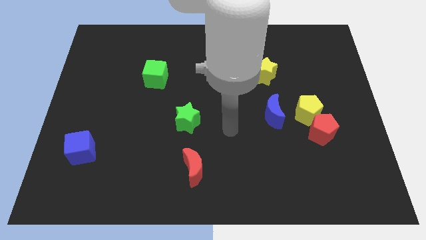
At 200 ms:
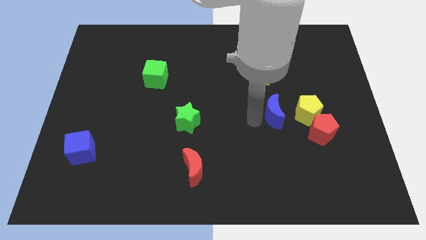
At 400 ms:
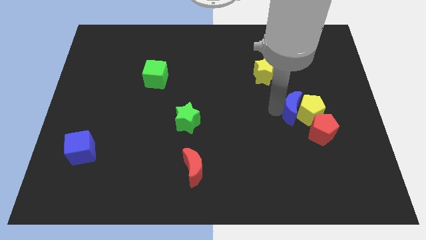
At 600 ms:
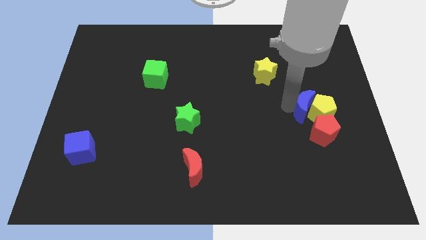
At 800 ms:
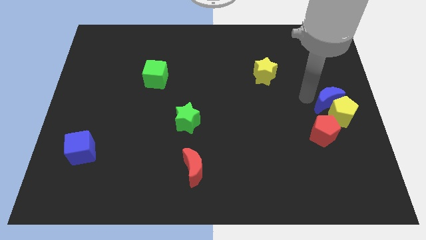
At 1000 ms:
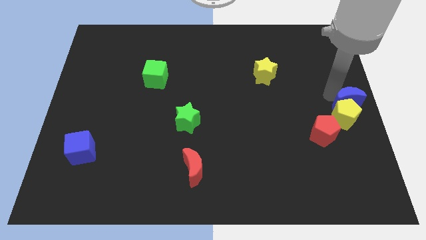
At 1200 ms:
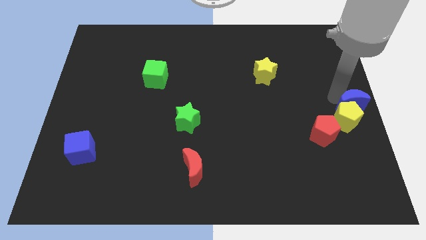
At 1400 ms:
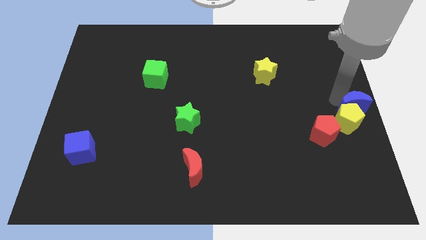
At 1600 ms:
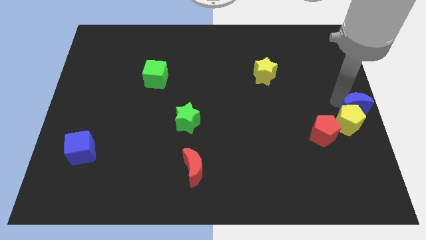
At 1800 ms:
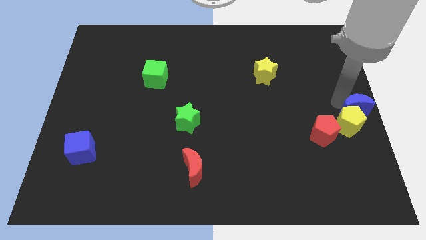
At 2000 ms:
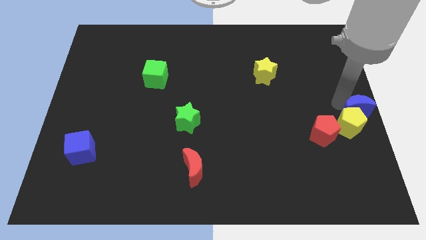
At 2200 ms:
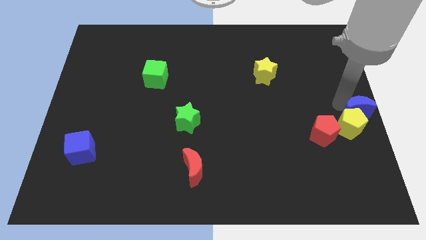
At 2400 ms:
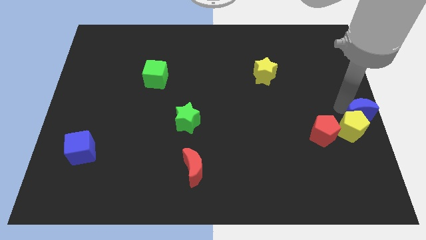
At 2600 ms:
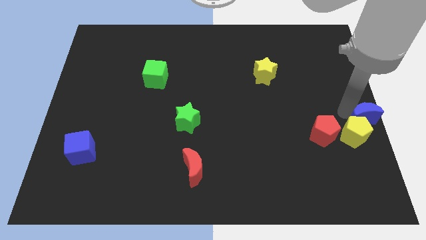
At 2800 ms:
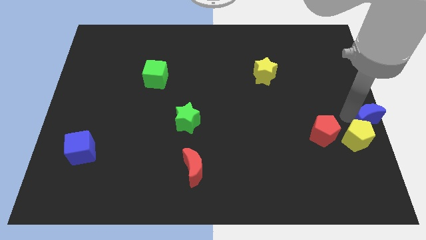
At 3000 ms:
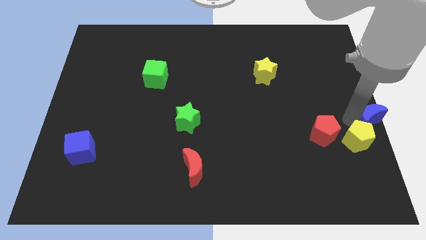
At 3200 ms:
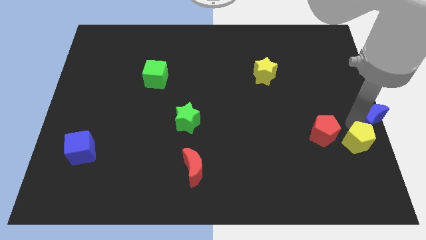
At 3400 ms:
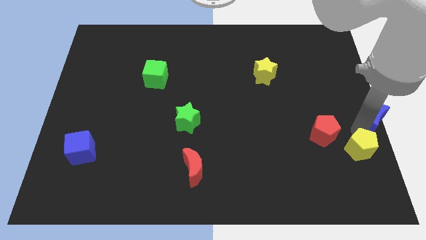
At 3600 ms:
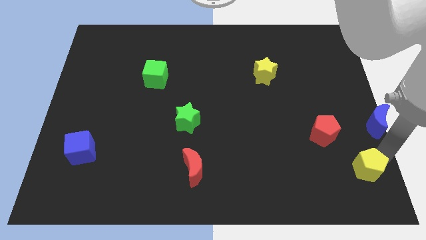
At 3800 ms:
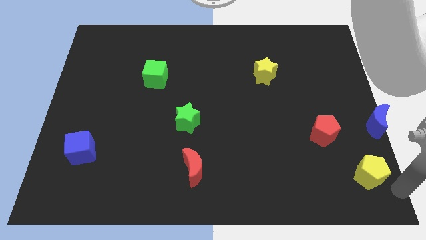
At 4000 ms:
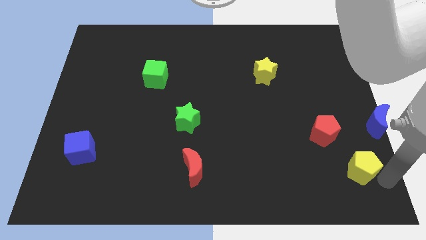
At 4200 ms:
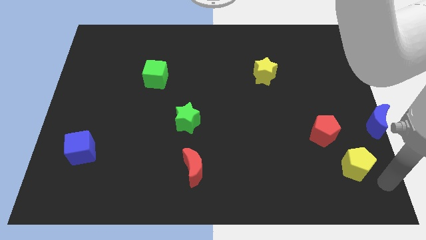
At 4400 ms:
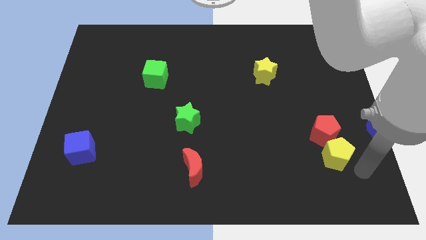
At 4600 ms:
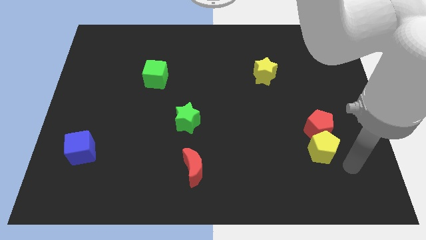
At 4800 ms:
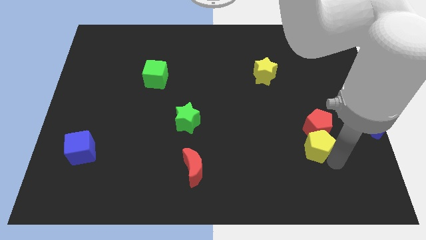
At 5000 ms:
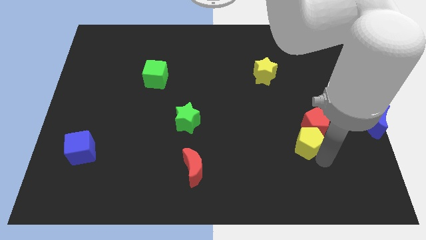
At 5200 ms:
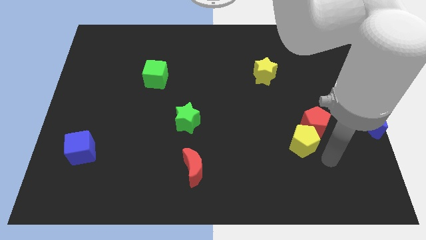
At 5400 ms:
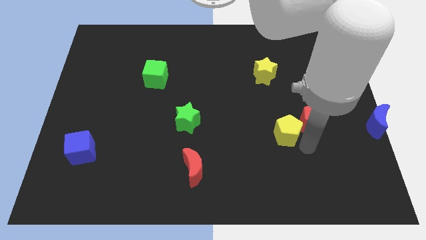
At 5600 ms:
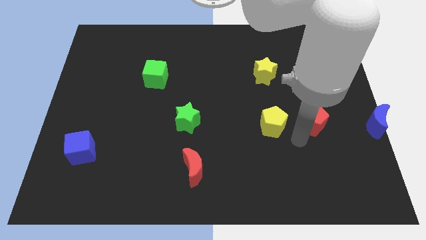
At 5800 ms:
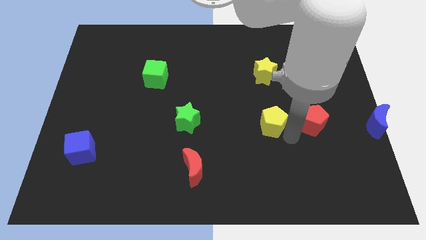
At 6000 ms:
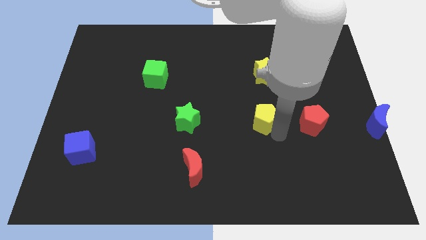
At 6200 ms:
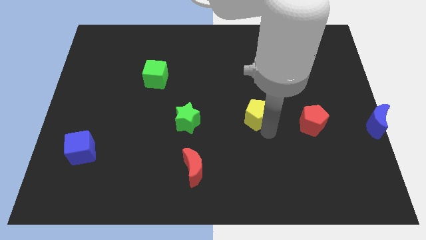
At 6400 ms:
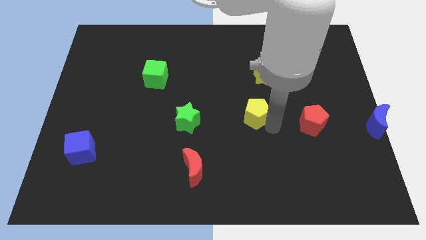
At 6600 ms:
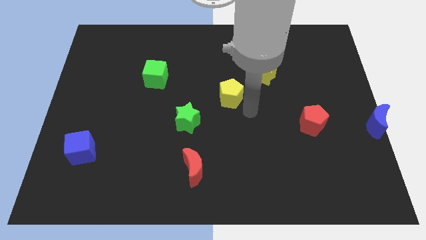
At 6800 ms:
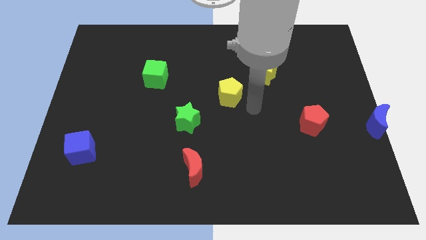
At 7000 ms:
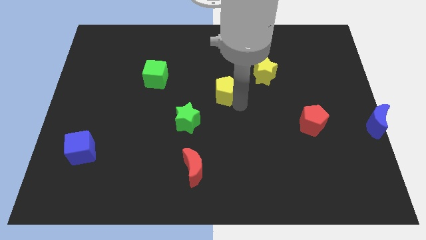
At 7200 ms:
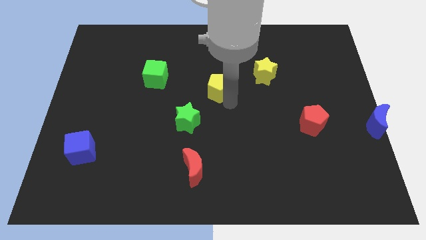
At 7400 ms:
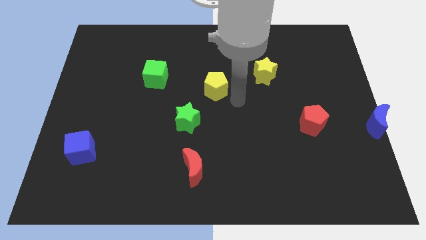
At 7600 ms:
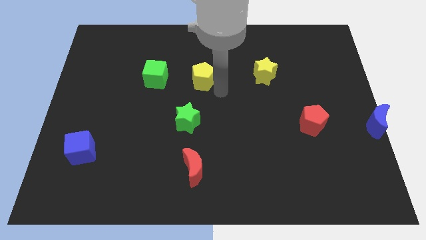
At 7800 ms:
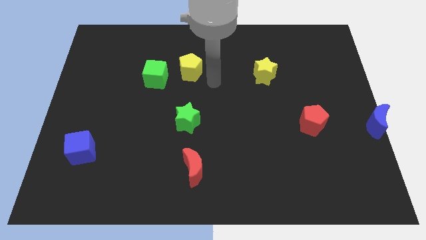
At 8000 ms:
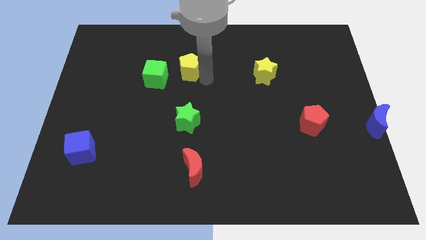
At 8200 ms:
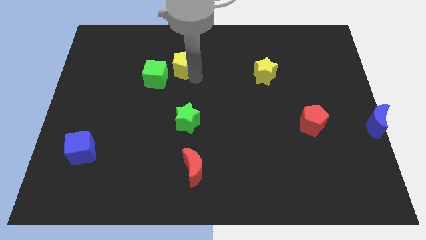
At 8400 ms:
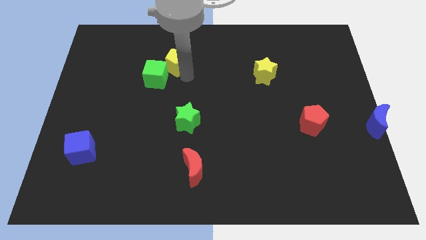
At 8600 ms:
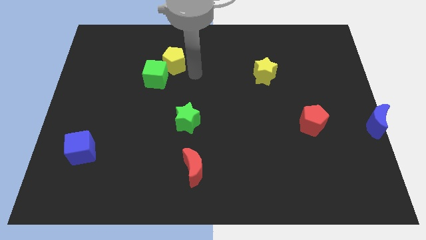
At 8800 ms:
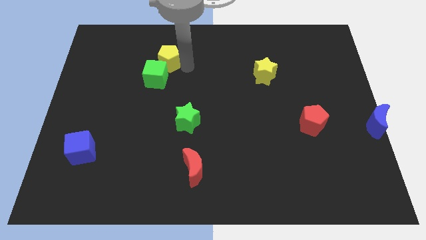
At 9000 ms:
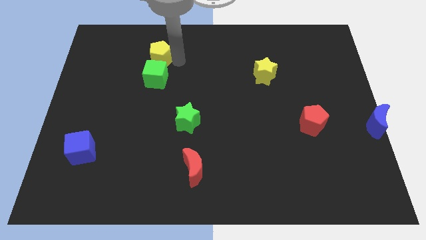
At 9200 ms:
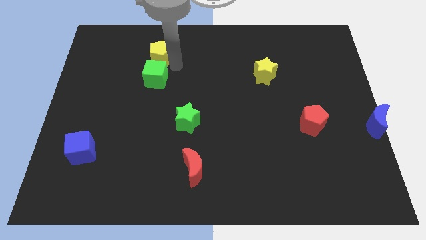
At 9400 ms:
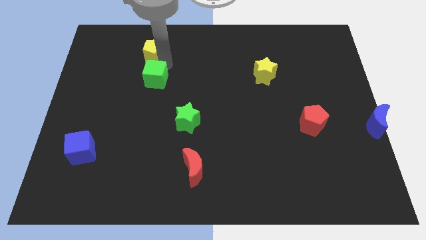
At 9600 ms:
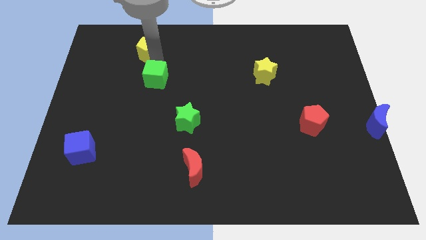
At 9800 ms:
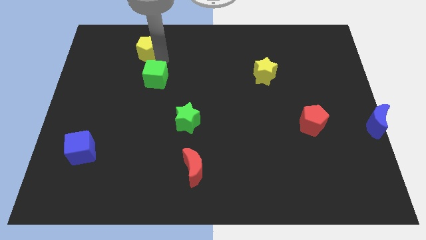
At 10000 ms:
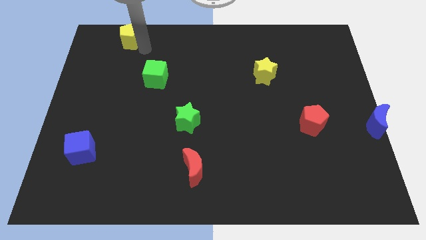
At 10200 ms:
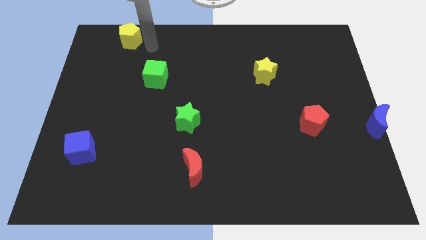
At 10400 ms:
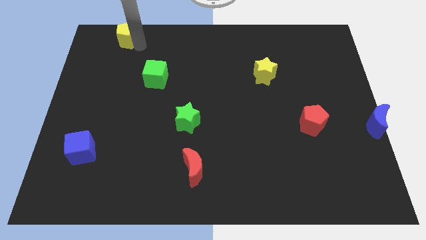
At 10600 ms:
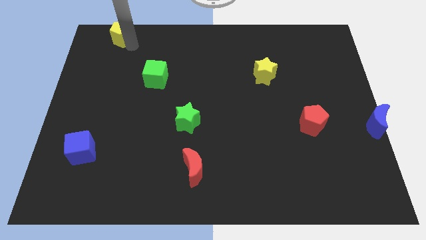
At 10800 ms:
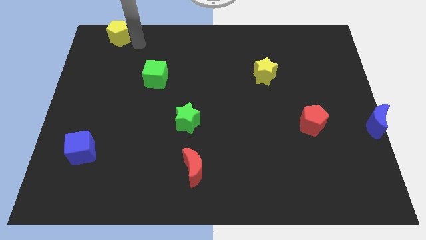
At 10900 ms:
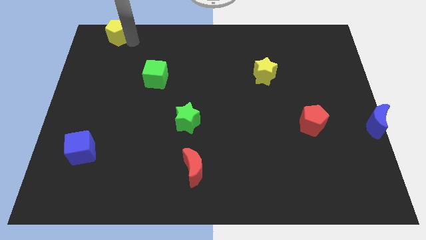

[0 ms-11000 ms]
put the yellow pentagon to the upper left corner
